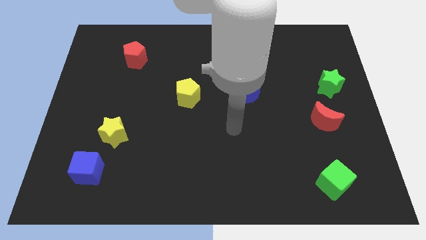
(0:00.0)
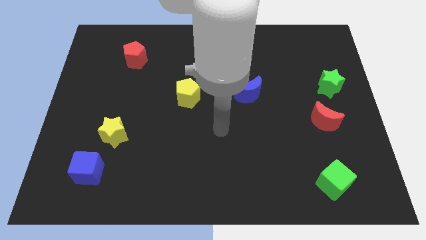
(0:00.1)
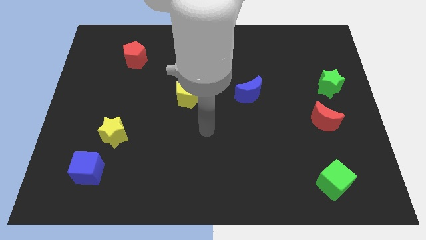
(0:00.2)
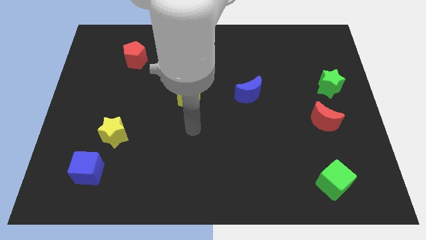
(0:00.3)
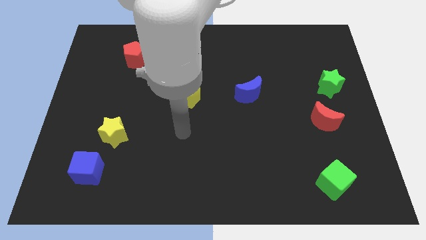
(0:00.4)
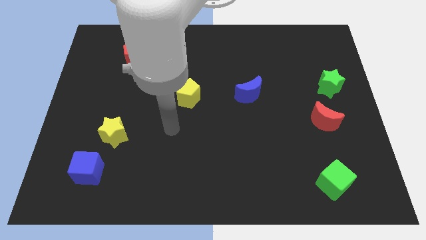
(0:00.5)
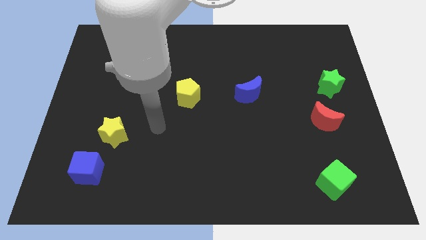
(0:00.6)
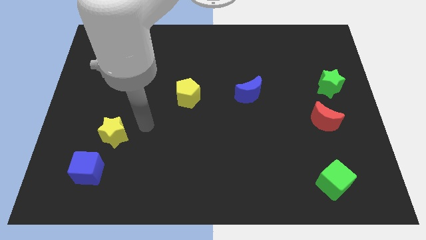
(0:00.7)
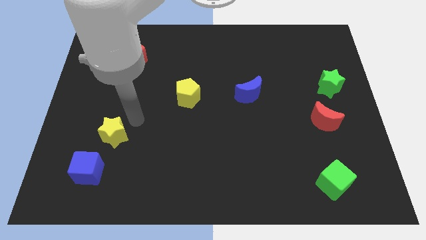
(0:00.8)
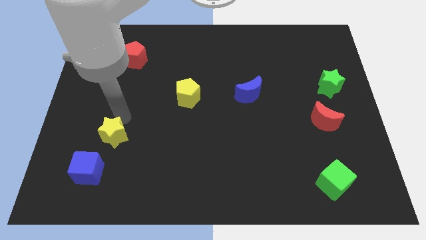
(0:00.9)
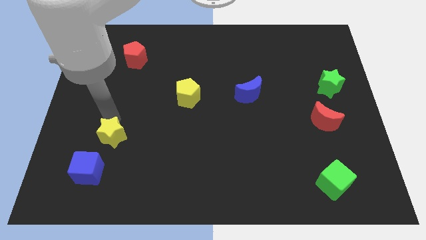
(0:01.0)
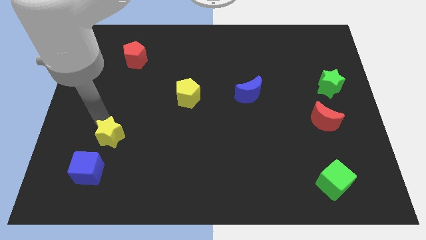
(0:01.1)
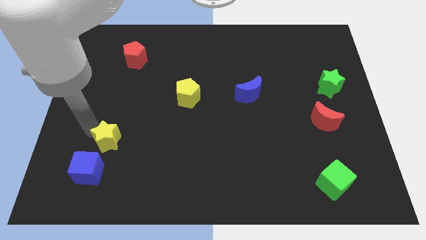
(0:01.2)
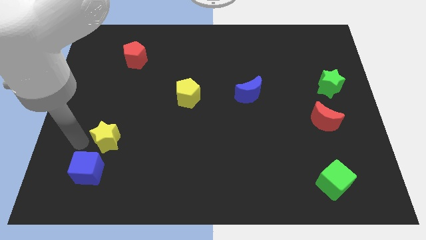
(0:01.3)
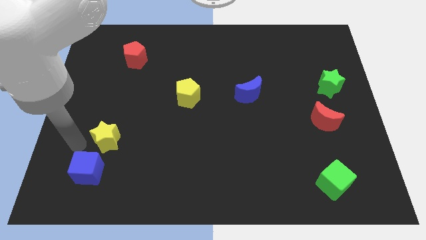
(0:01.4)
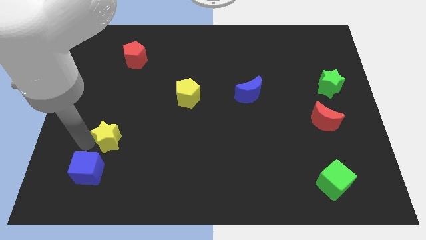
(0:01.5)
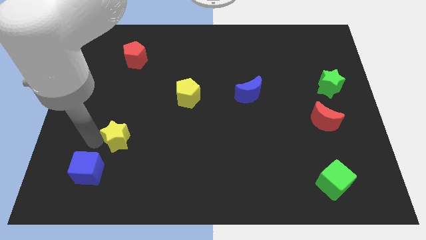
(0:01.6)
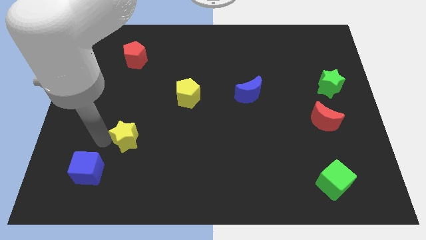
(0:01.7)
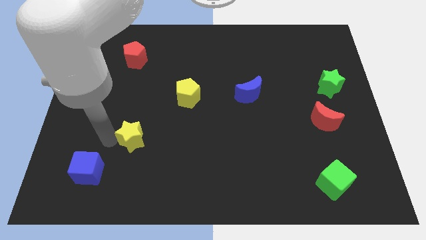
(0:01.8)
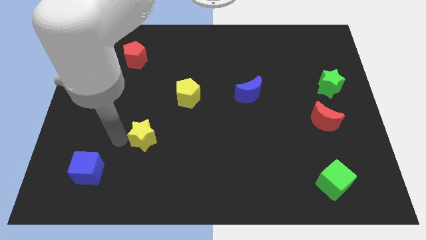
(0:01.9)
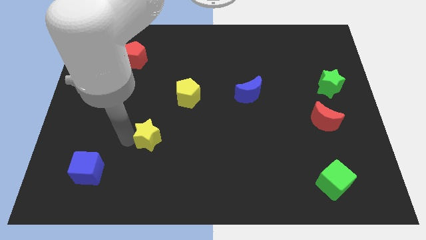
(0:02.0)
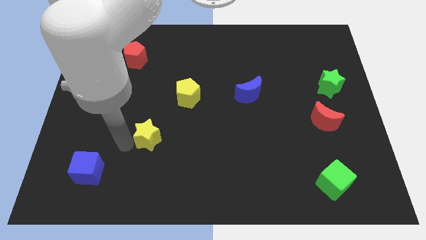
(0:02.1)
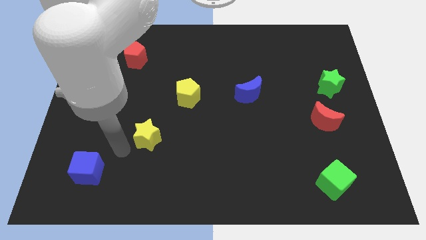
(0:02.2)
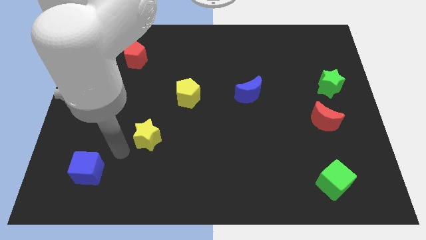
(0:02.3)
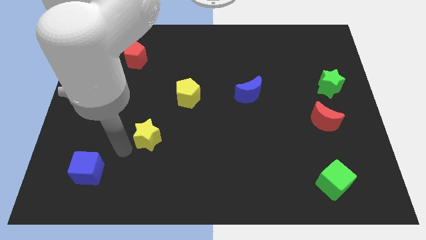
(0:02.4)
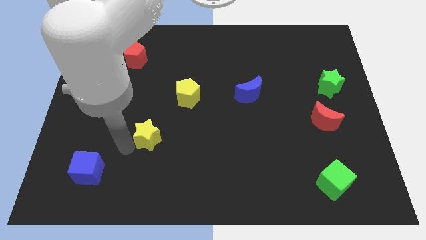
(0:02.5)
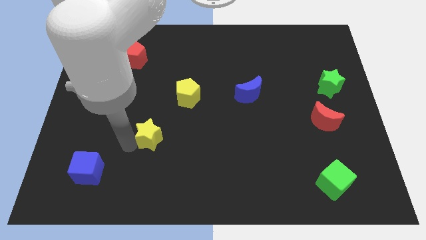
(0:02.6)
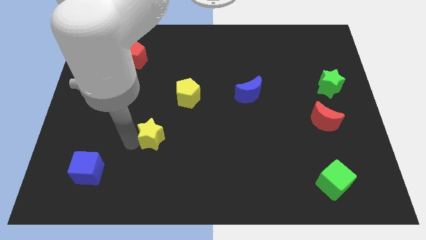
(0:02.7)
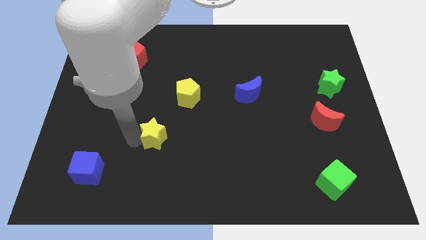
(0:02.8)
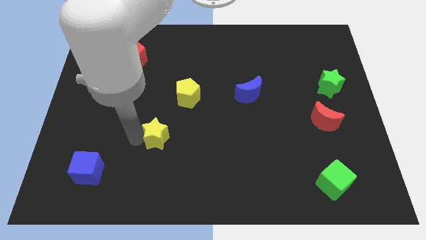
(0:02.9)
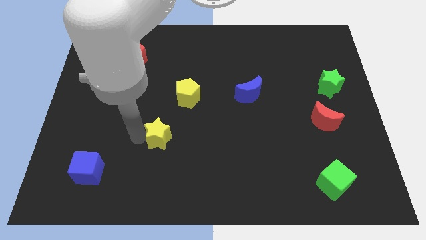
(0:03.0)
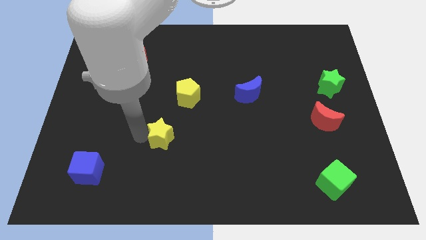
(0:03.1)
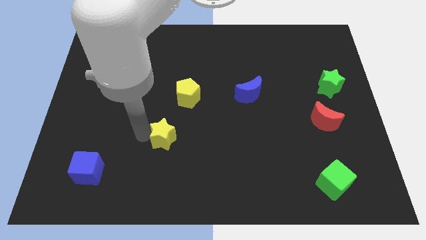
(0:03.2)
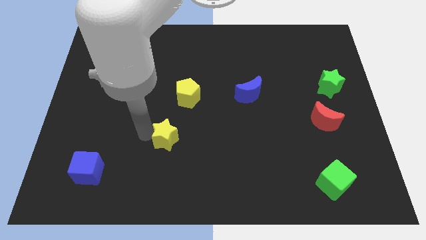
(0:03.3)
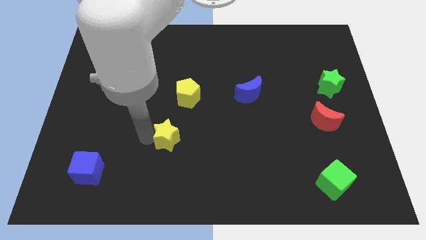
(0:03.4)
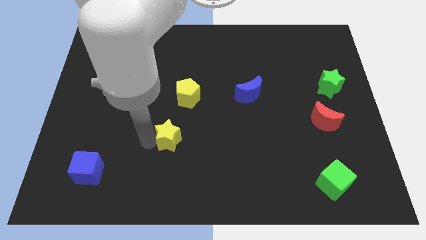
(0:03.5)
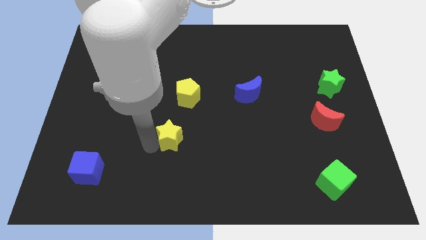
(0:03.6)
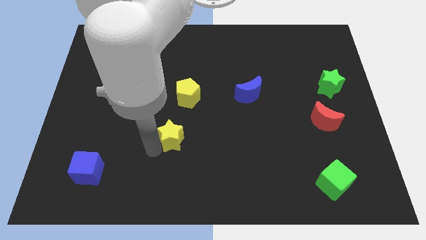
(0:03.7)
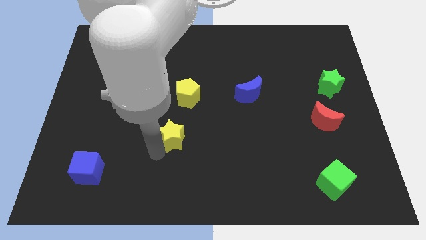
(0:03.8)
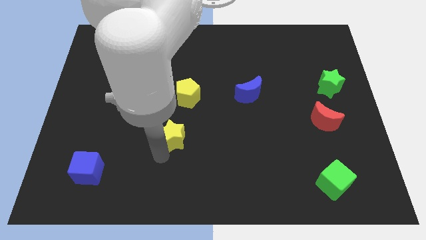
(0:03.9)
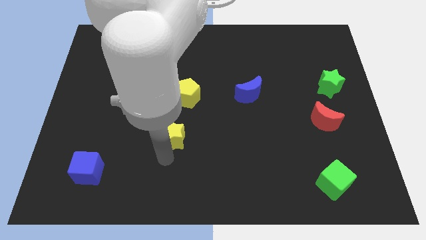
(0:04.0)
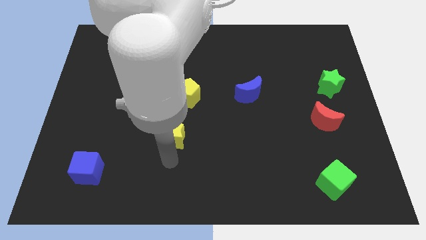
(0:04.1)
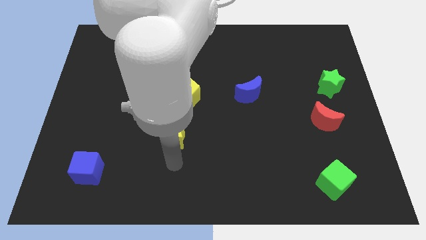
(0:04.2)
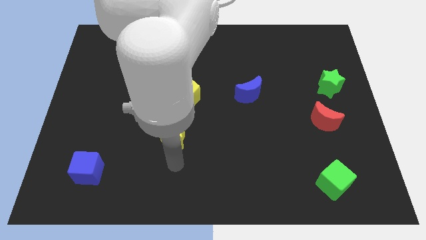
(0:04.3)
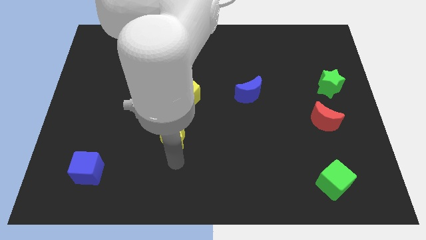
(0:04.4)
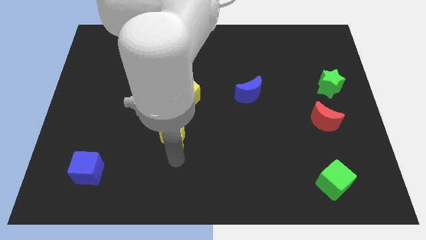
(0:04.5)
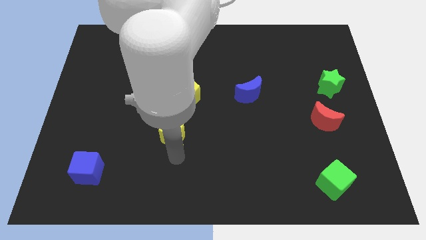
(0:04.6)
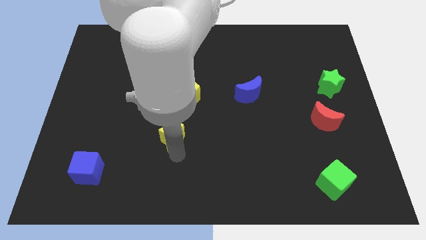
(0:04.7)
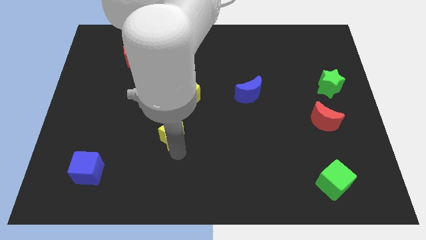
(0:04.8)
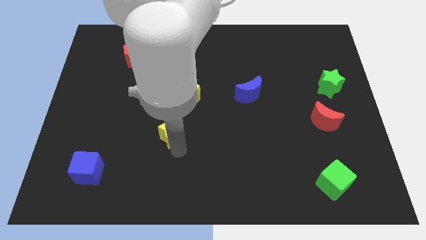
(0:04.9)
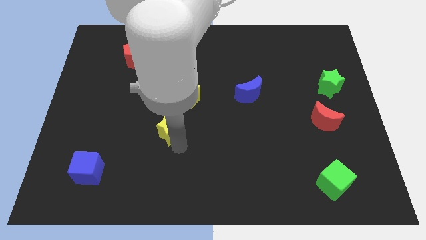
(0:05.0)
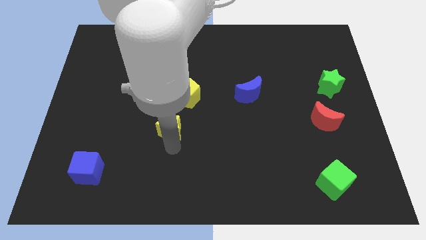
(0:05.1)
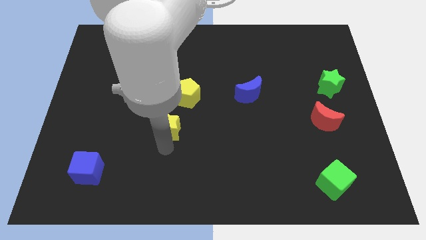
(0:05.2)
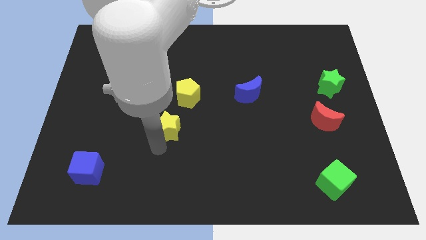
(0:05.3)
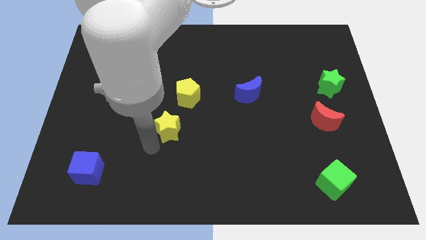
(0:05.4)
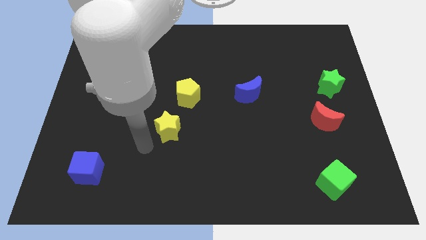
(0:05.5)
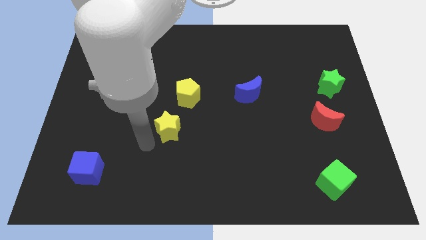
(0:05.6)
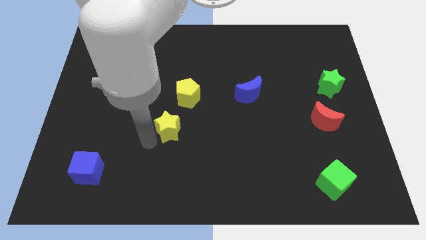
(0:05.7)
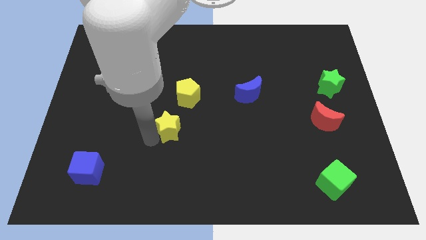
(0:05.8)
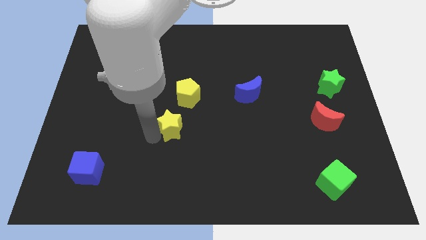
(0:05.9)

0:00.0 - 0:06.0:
push the yellow star to the middle
